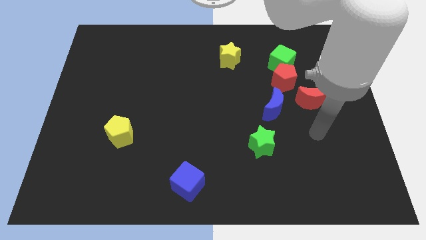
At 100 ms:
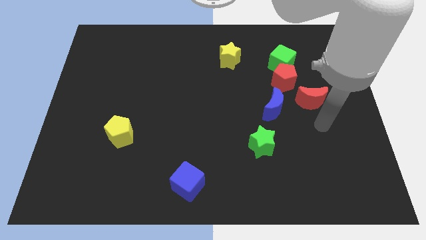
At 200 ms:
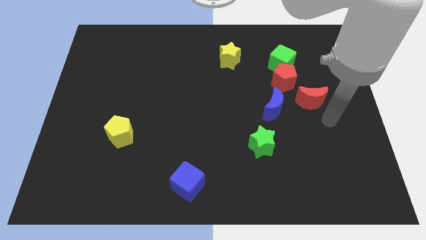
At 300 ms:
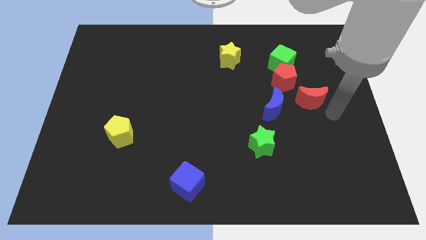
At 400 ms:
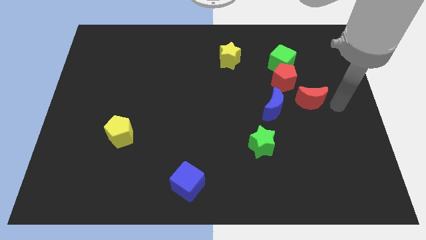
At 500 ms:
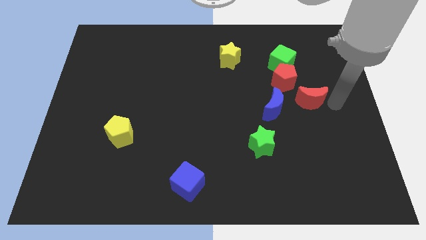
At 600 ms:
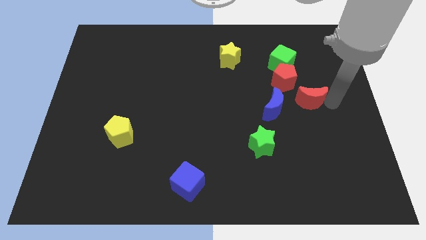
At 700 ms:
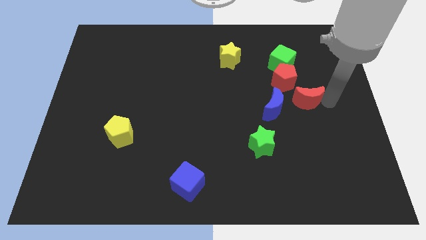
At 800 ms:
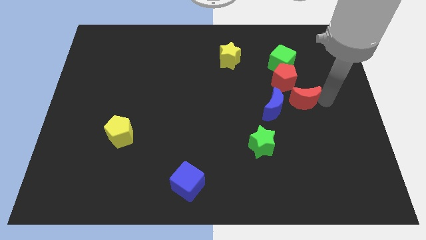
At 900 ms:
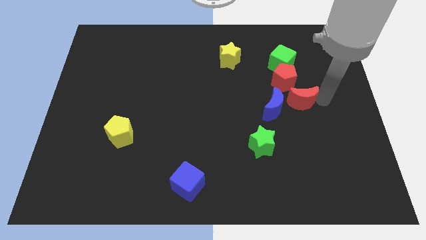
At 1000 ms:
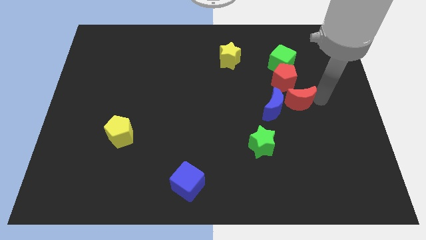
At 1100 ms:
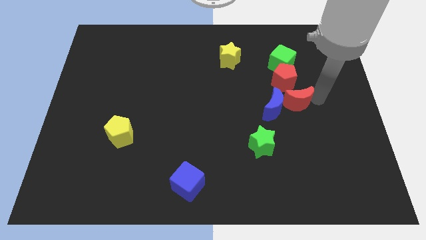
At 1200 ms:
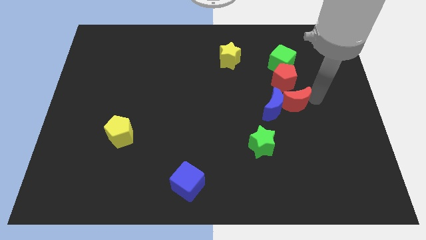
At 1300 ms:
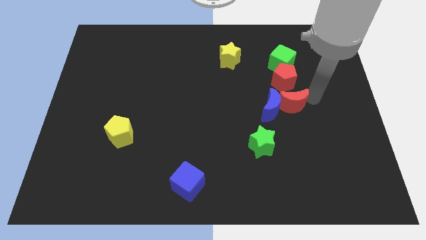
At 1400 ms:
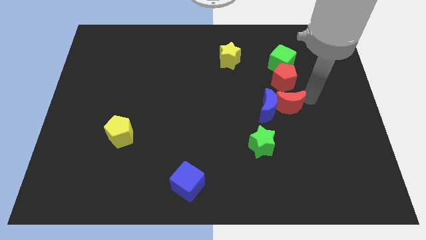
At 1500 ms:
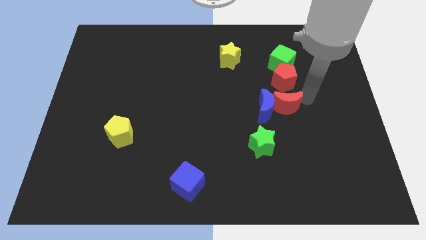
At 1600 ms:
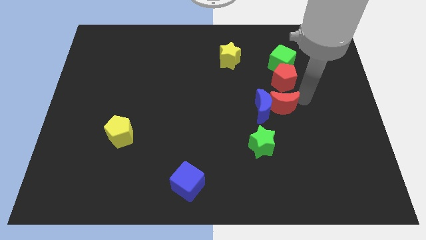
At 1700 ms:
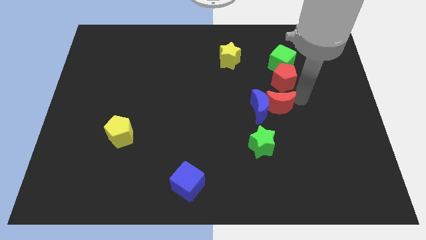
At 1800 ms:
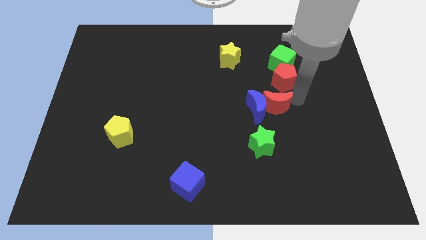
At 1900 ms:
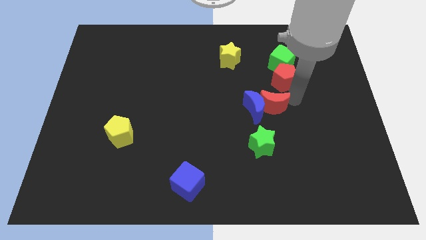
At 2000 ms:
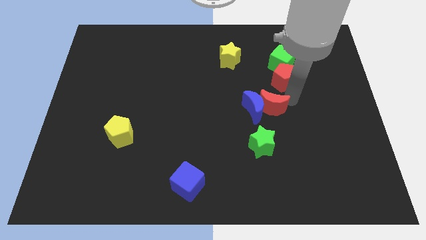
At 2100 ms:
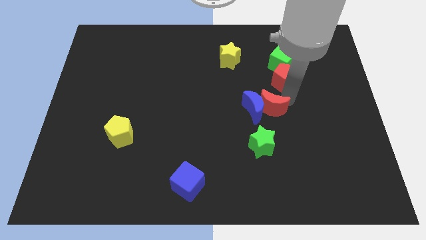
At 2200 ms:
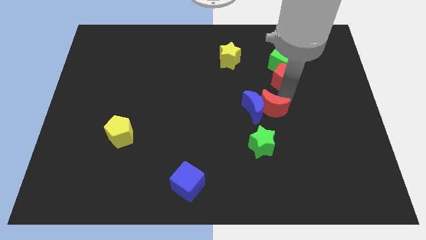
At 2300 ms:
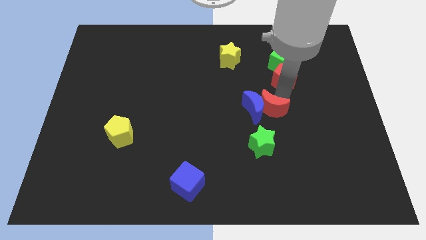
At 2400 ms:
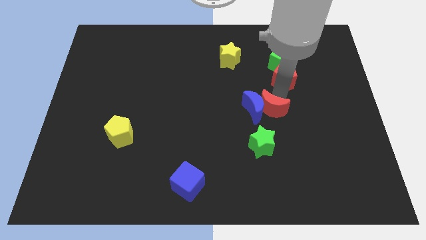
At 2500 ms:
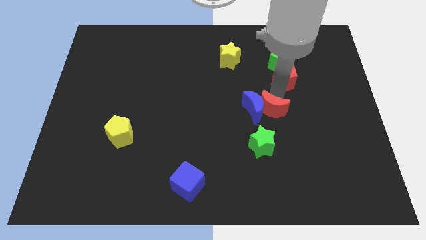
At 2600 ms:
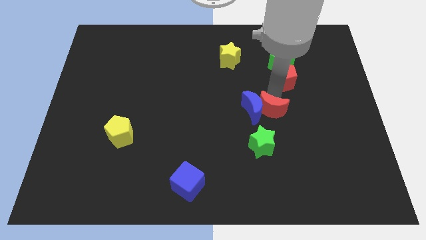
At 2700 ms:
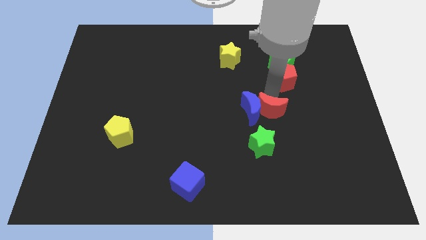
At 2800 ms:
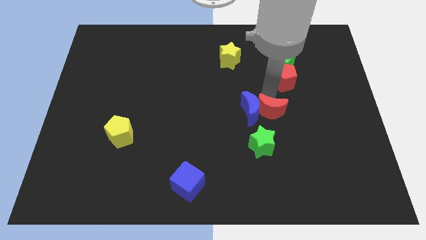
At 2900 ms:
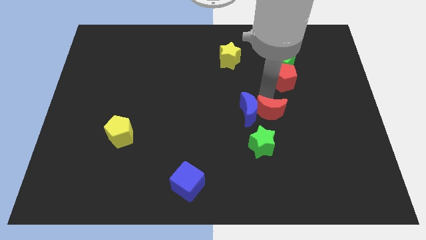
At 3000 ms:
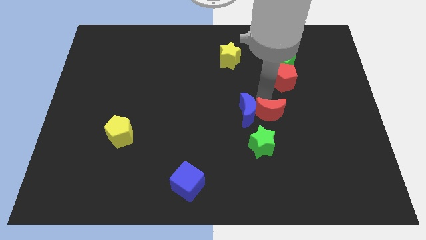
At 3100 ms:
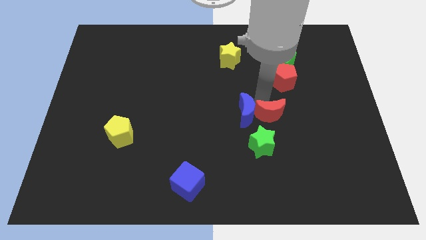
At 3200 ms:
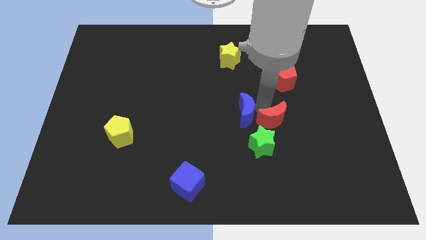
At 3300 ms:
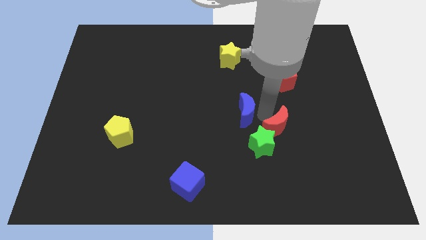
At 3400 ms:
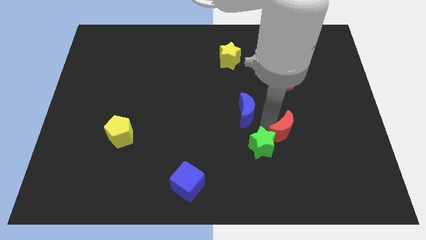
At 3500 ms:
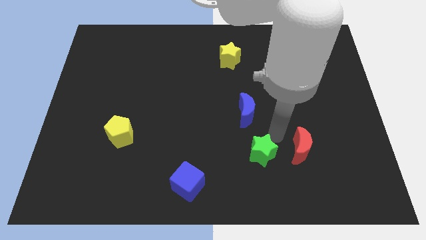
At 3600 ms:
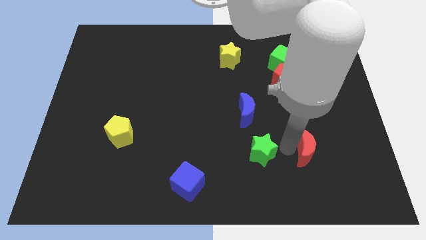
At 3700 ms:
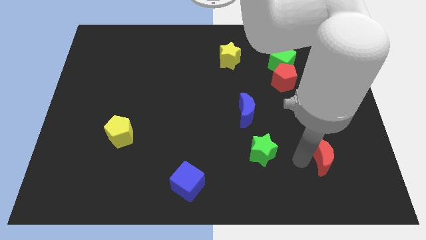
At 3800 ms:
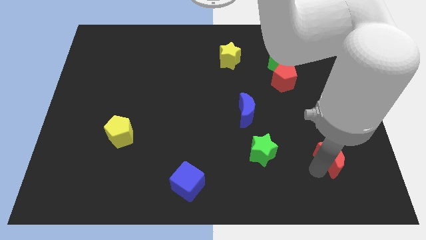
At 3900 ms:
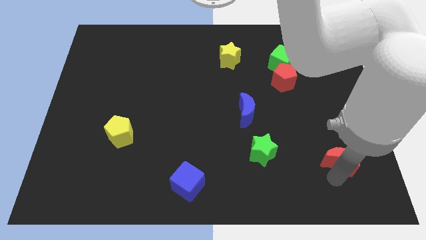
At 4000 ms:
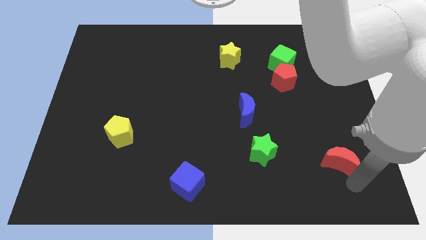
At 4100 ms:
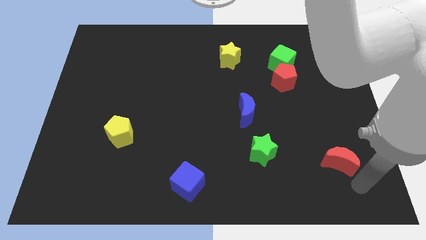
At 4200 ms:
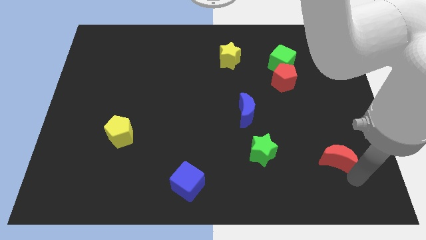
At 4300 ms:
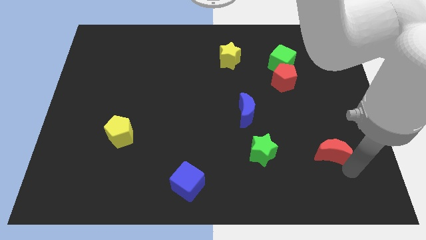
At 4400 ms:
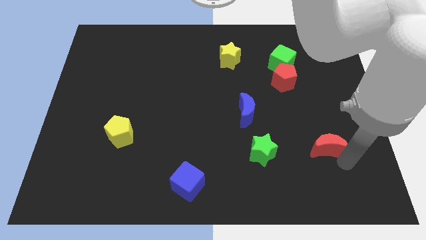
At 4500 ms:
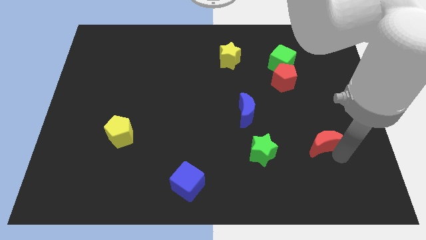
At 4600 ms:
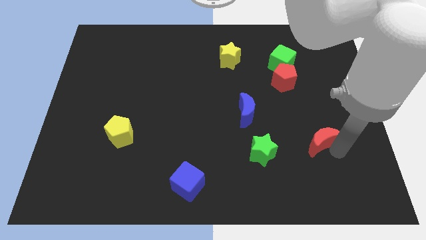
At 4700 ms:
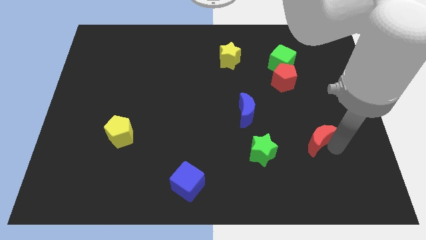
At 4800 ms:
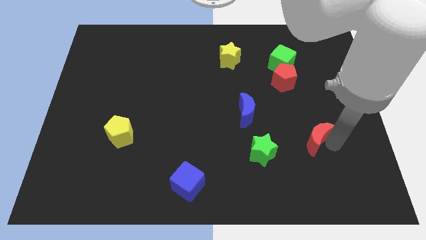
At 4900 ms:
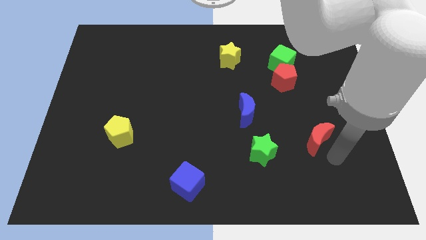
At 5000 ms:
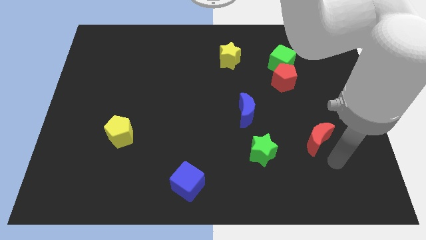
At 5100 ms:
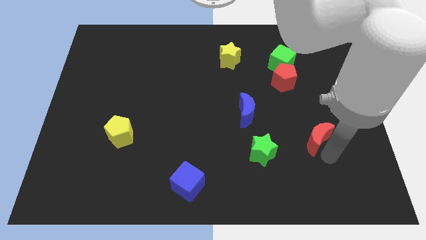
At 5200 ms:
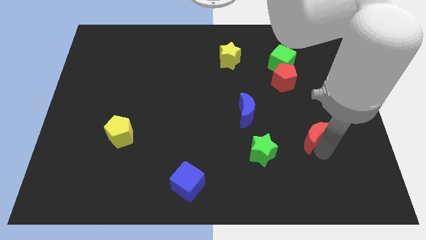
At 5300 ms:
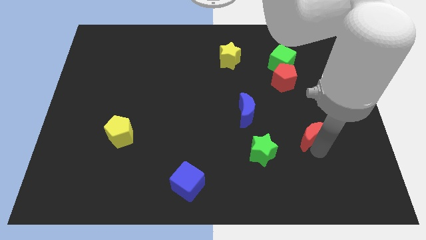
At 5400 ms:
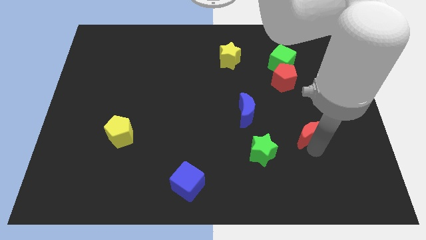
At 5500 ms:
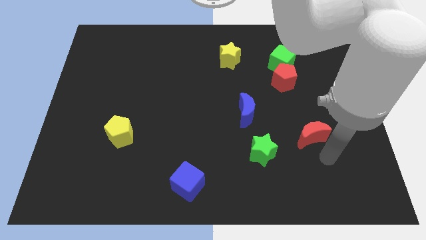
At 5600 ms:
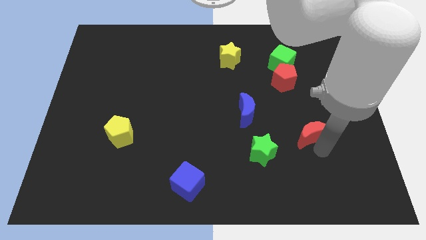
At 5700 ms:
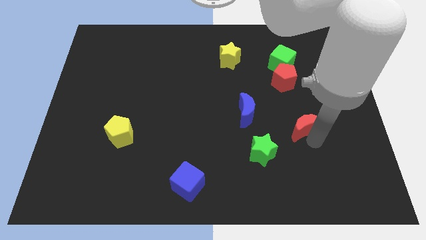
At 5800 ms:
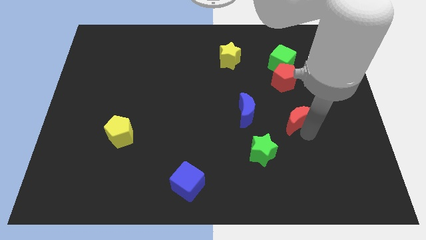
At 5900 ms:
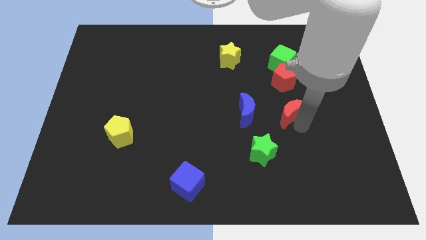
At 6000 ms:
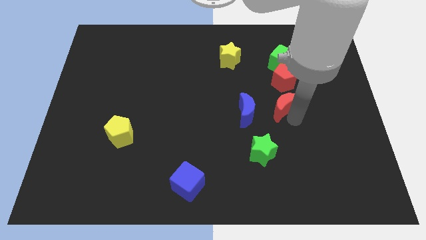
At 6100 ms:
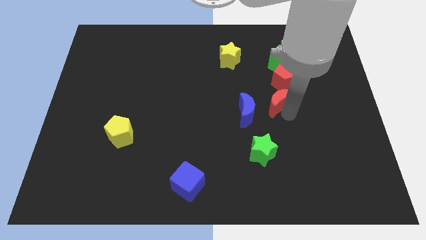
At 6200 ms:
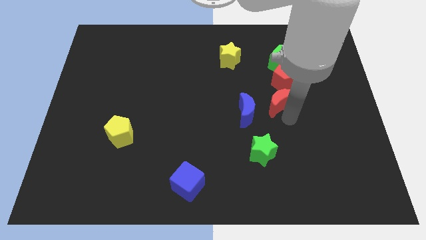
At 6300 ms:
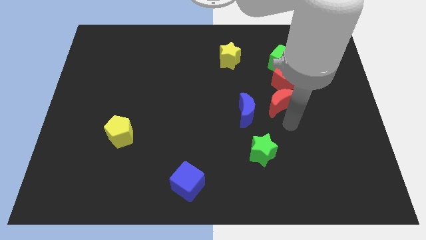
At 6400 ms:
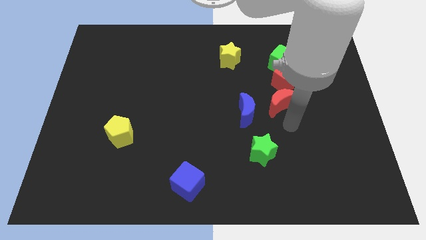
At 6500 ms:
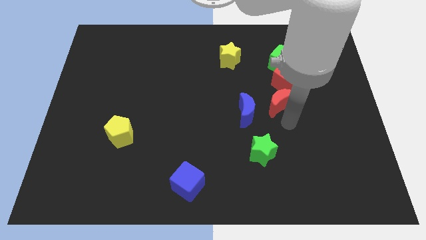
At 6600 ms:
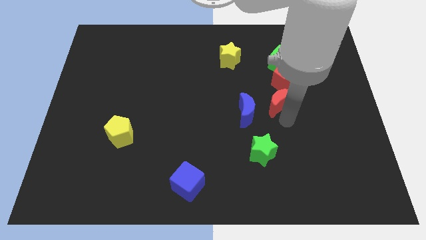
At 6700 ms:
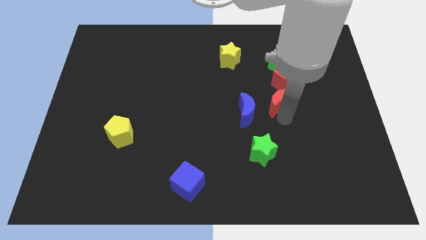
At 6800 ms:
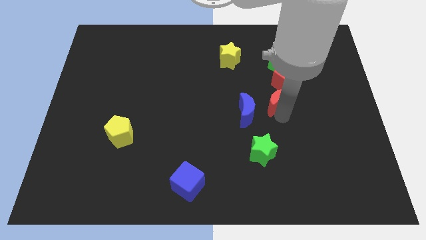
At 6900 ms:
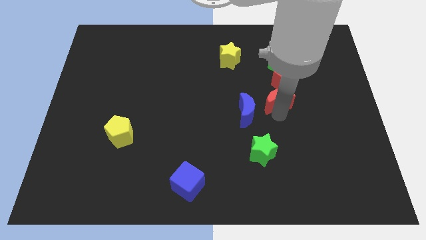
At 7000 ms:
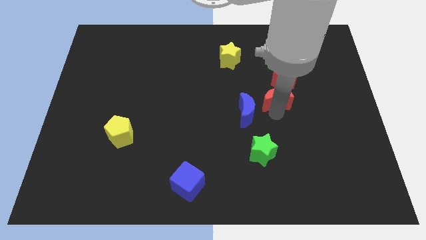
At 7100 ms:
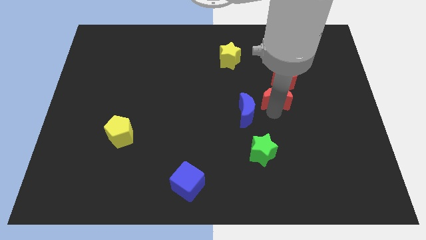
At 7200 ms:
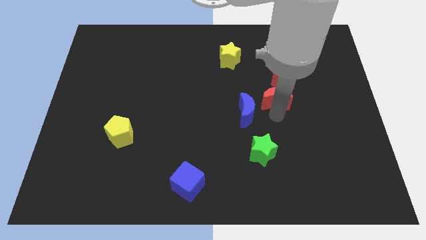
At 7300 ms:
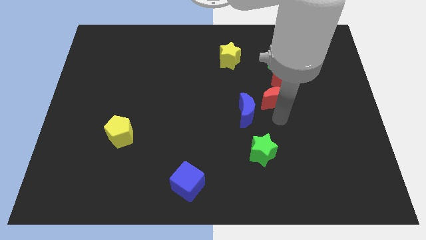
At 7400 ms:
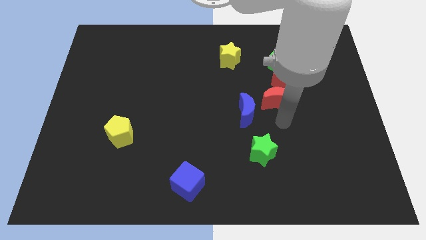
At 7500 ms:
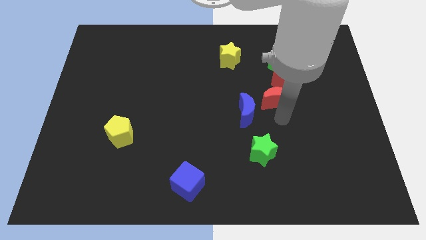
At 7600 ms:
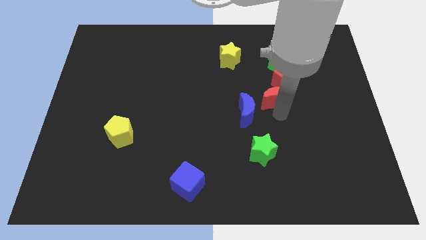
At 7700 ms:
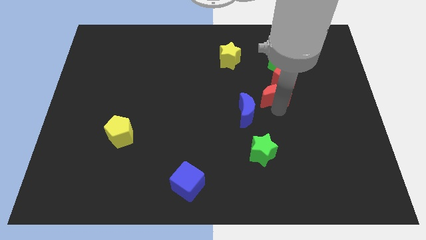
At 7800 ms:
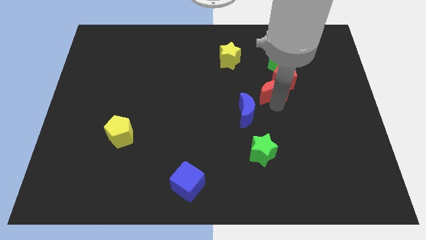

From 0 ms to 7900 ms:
slightly push the red moon up and to the left diagonally

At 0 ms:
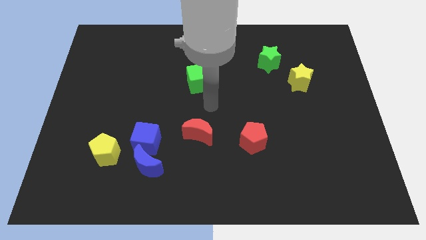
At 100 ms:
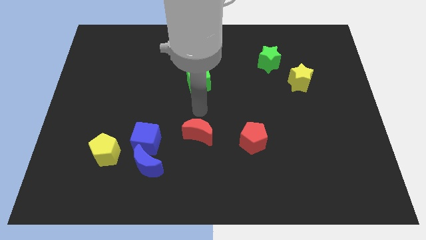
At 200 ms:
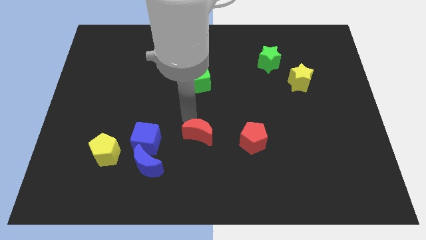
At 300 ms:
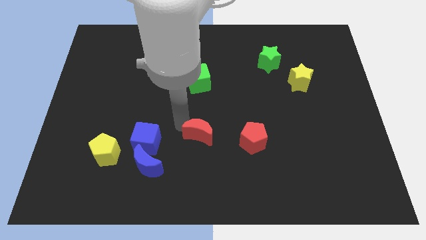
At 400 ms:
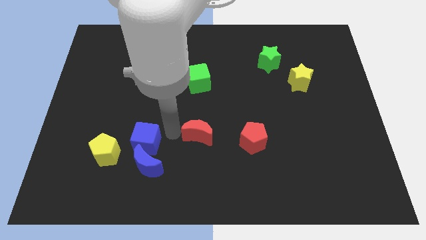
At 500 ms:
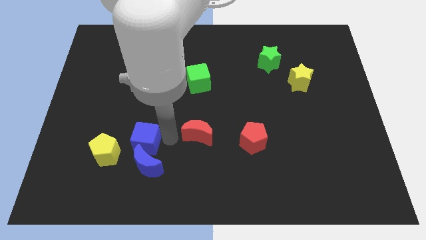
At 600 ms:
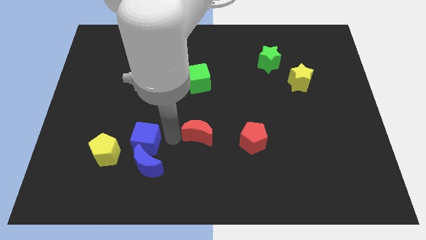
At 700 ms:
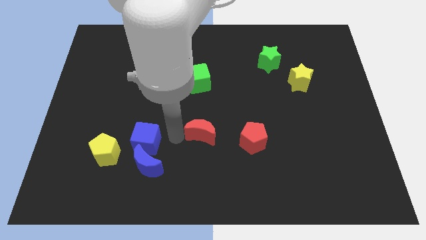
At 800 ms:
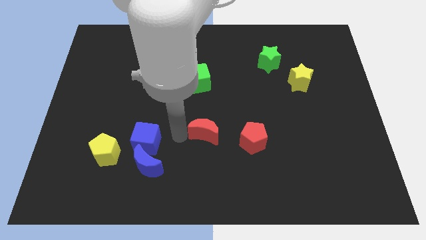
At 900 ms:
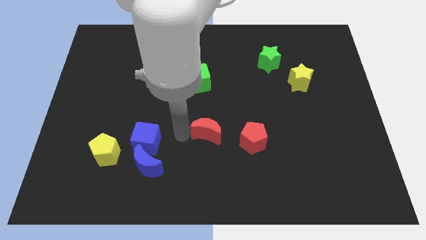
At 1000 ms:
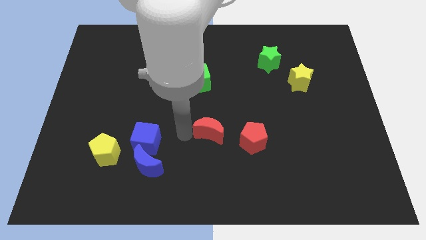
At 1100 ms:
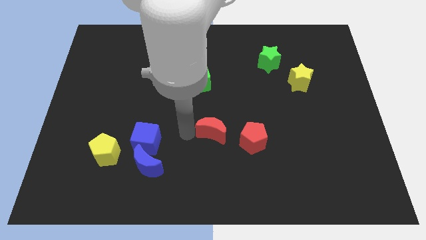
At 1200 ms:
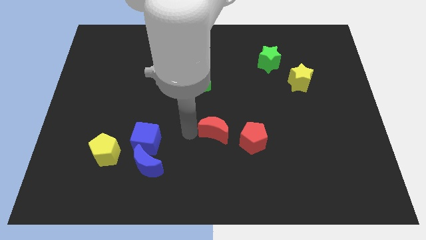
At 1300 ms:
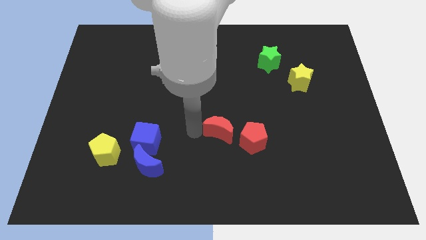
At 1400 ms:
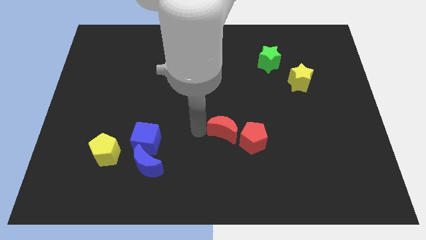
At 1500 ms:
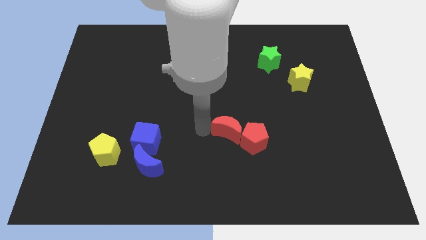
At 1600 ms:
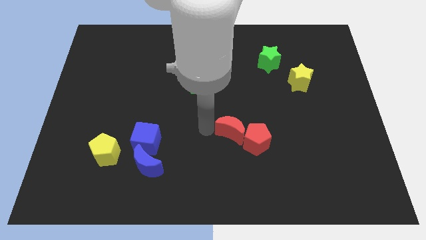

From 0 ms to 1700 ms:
slide the red moon right somewhat
